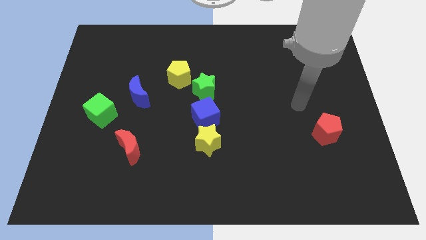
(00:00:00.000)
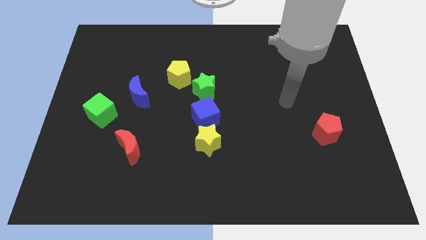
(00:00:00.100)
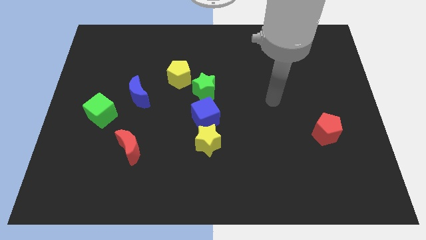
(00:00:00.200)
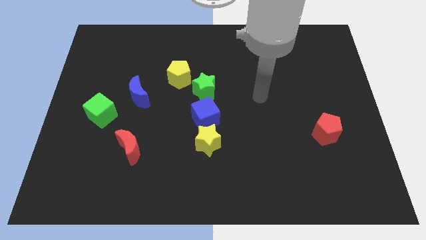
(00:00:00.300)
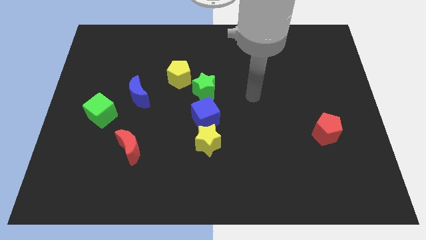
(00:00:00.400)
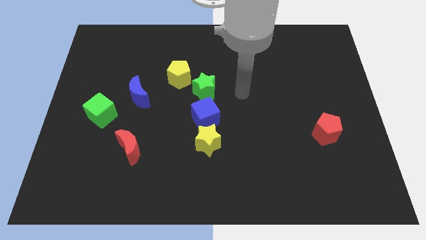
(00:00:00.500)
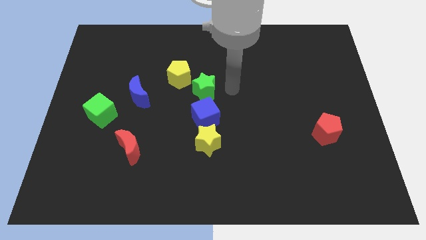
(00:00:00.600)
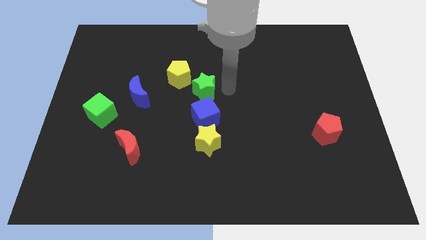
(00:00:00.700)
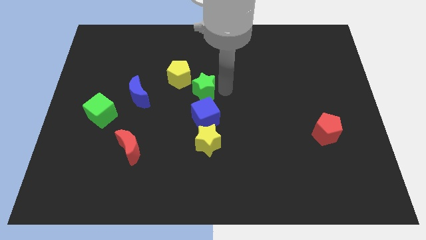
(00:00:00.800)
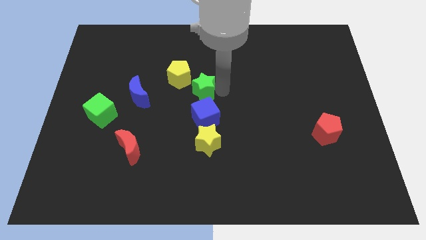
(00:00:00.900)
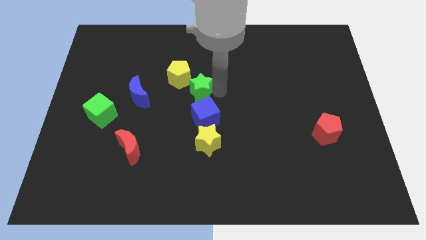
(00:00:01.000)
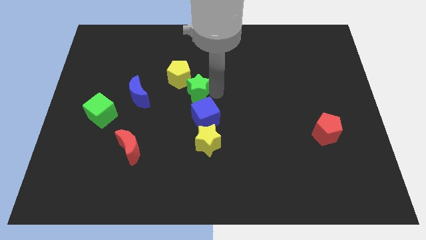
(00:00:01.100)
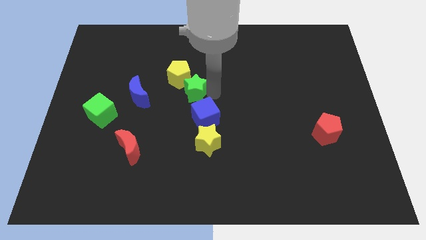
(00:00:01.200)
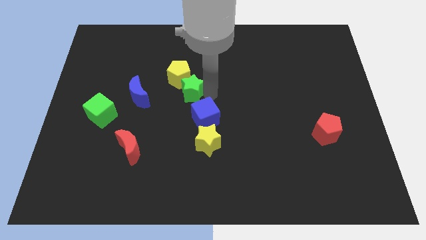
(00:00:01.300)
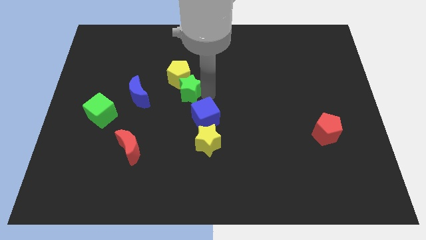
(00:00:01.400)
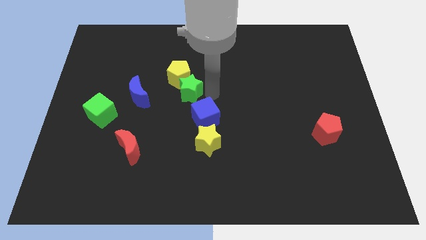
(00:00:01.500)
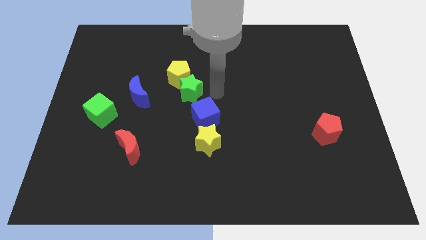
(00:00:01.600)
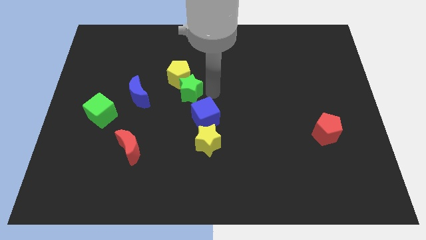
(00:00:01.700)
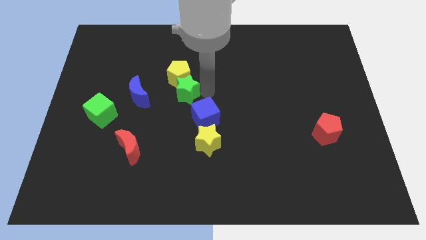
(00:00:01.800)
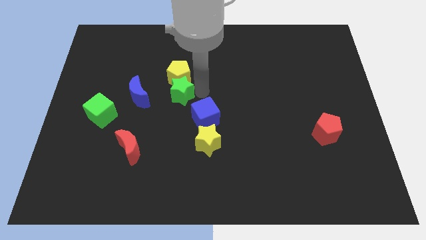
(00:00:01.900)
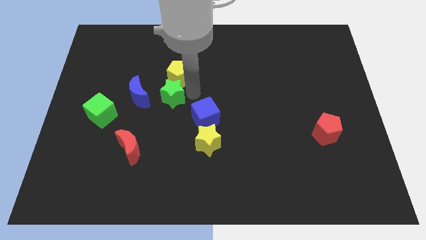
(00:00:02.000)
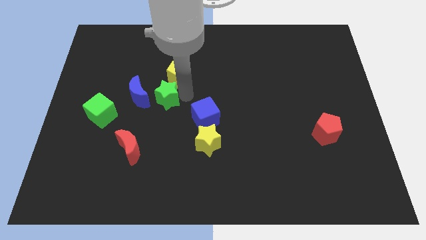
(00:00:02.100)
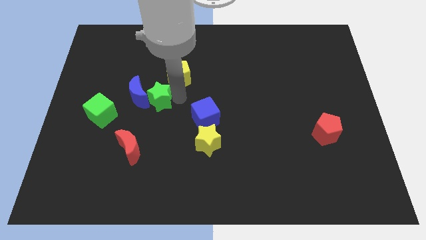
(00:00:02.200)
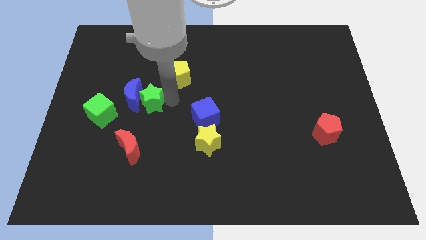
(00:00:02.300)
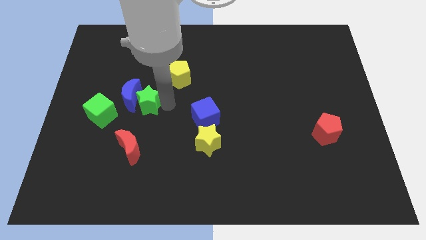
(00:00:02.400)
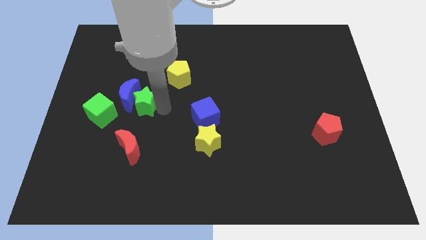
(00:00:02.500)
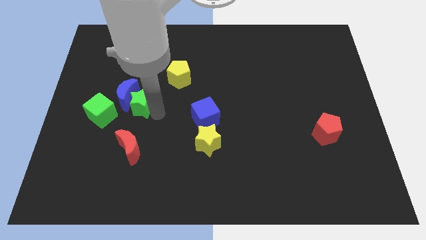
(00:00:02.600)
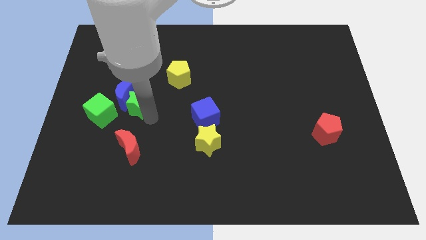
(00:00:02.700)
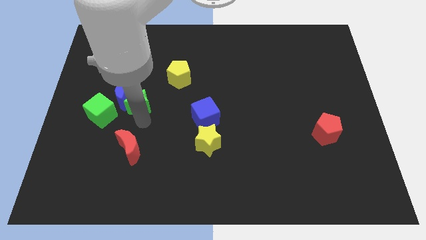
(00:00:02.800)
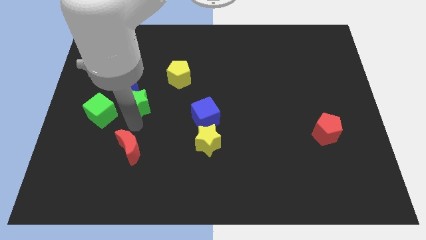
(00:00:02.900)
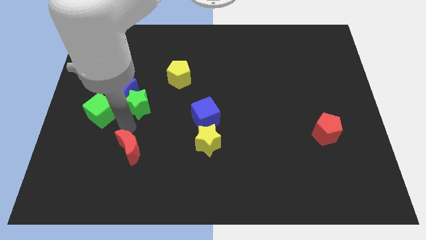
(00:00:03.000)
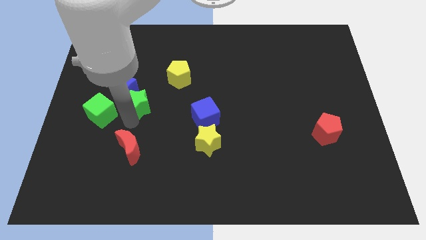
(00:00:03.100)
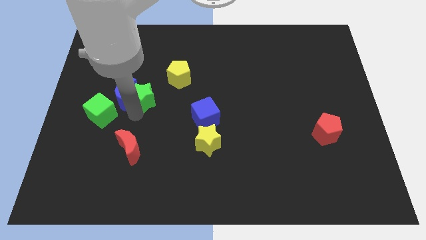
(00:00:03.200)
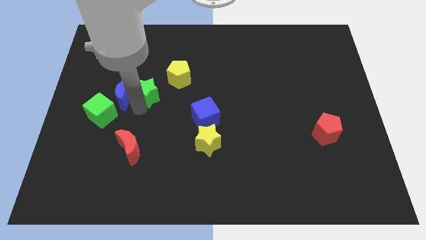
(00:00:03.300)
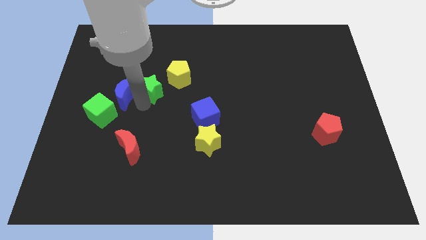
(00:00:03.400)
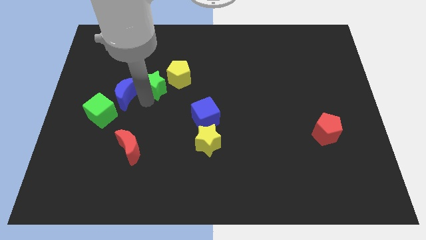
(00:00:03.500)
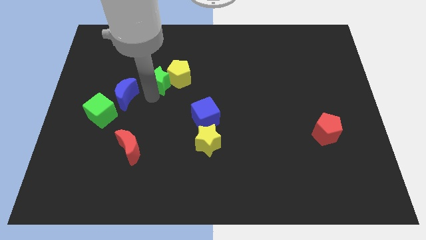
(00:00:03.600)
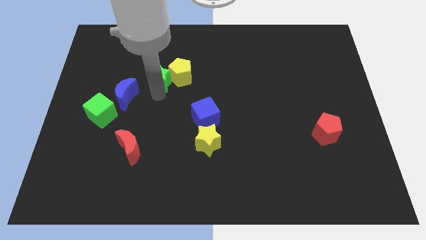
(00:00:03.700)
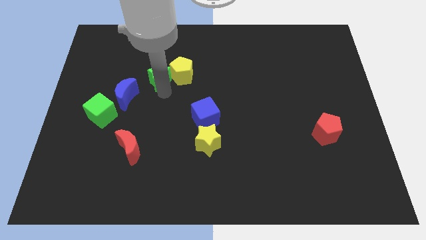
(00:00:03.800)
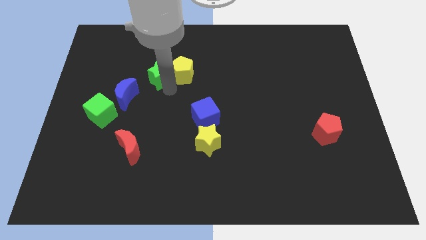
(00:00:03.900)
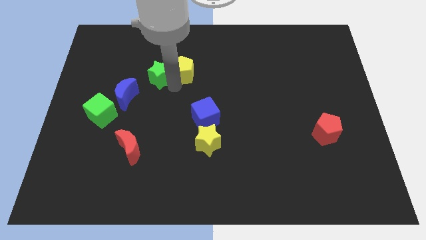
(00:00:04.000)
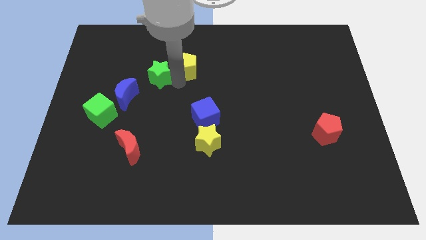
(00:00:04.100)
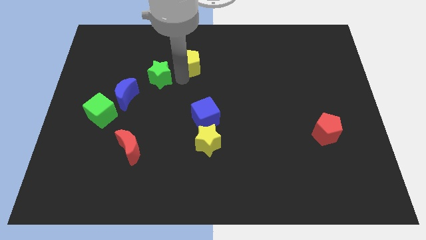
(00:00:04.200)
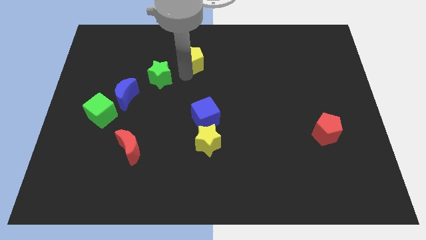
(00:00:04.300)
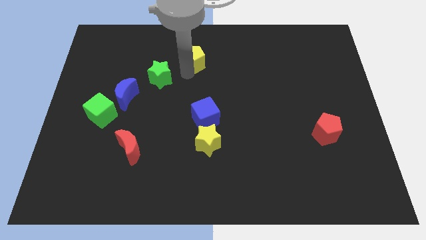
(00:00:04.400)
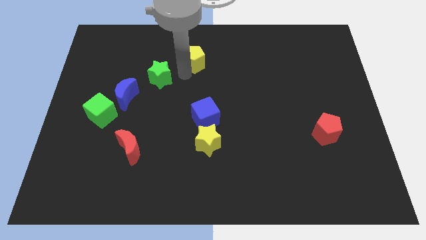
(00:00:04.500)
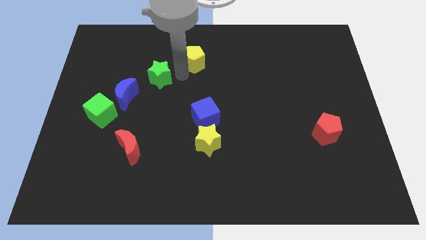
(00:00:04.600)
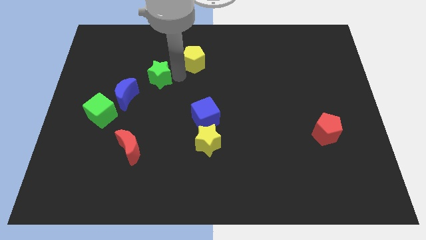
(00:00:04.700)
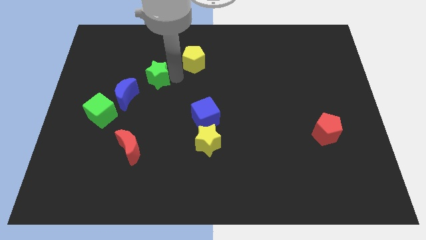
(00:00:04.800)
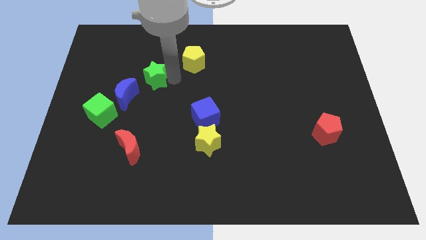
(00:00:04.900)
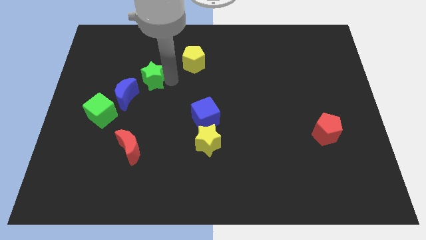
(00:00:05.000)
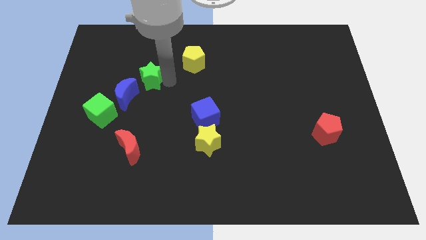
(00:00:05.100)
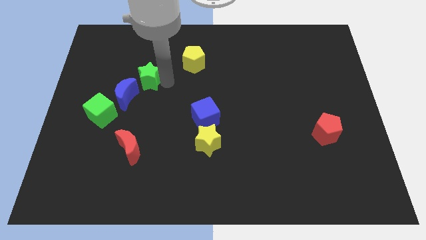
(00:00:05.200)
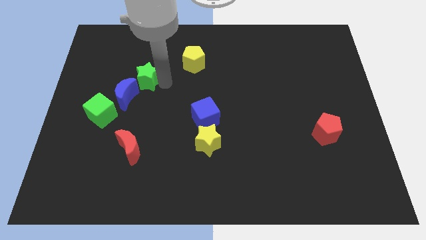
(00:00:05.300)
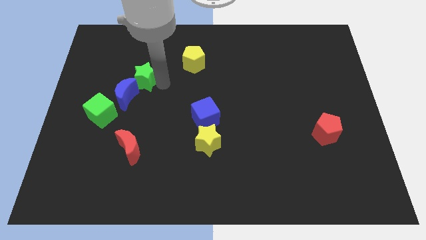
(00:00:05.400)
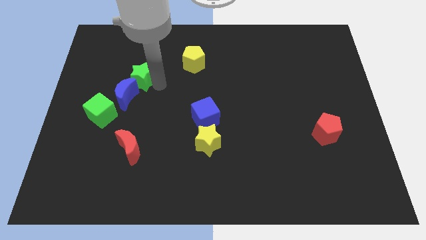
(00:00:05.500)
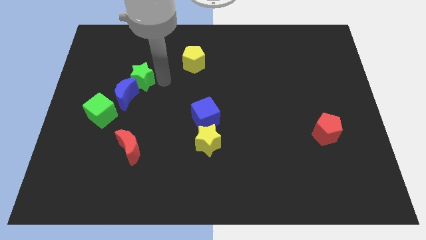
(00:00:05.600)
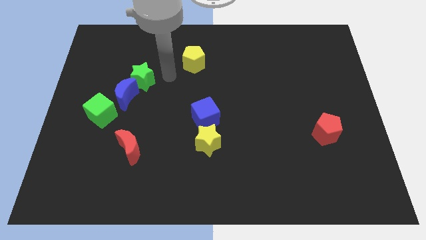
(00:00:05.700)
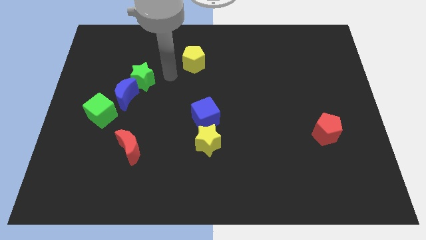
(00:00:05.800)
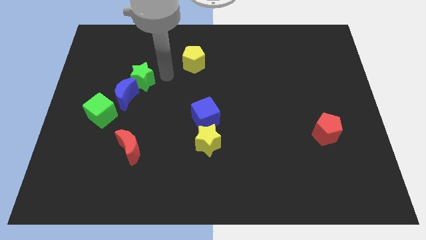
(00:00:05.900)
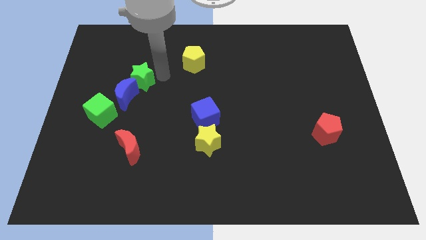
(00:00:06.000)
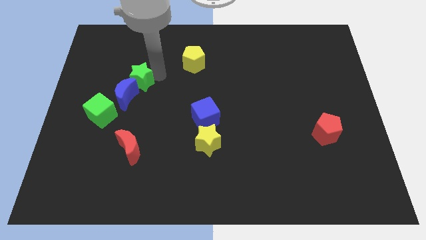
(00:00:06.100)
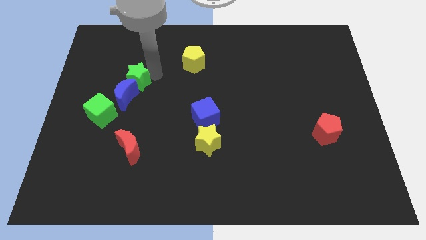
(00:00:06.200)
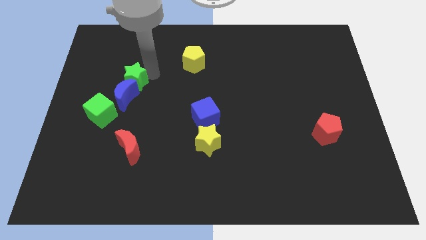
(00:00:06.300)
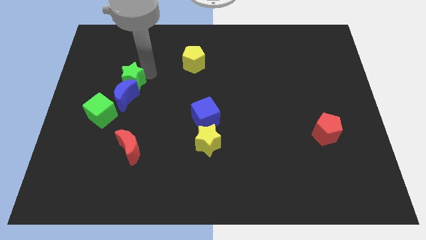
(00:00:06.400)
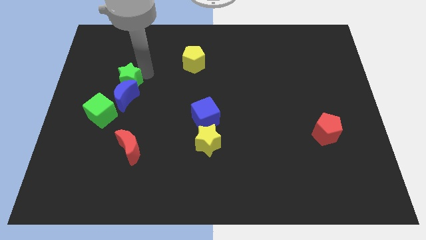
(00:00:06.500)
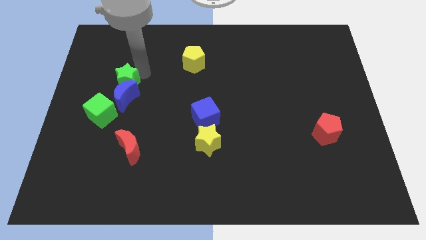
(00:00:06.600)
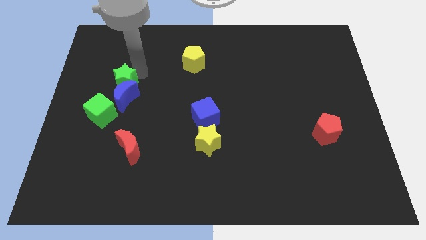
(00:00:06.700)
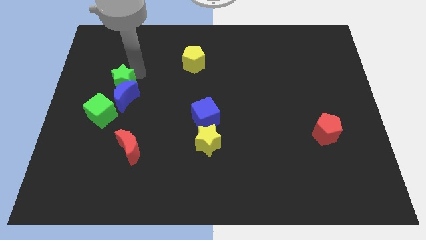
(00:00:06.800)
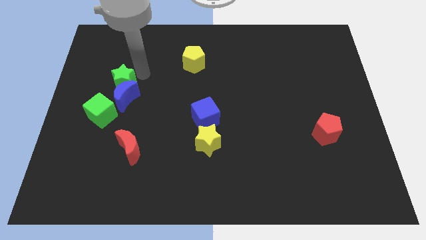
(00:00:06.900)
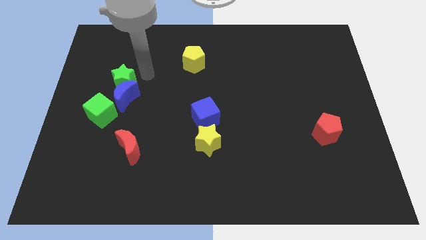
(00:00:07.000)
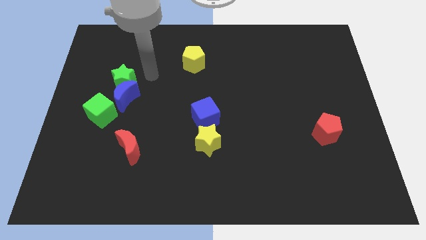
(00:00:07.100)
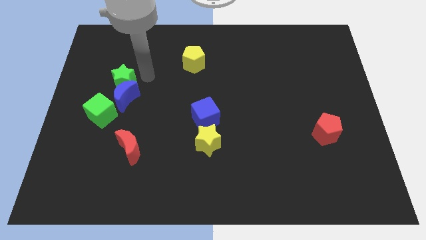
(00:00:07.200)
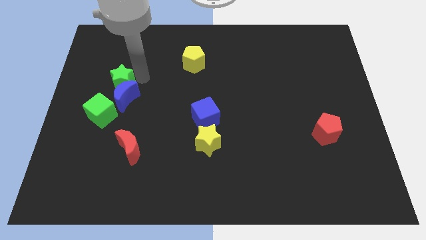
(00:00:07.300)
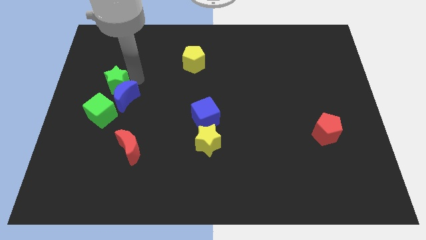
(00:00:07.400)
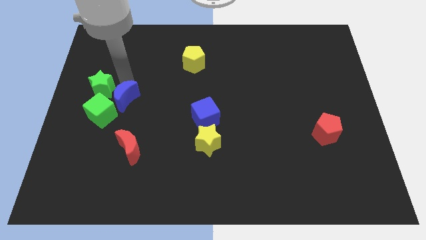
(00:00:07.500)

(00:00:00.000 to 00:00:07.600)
put the green star to the left side

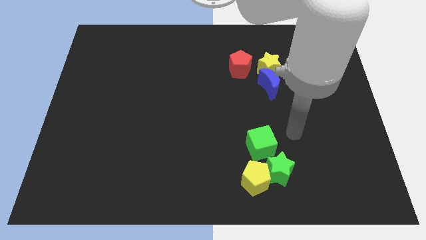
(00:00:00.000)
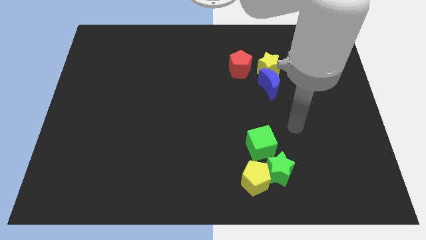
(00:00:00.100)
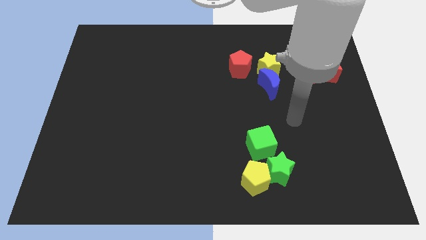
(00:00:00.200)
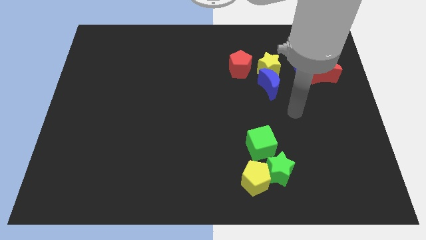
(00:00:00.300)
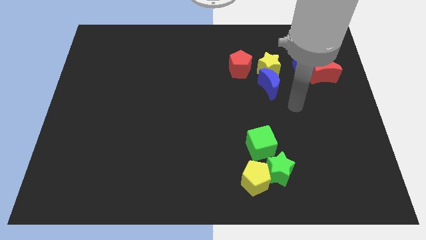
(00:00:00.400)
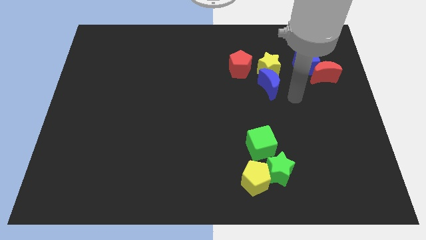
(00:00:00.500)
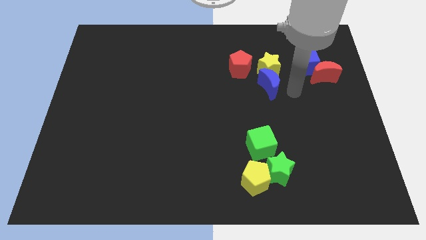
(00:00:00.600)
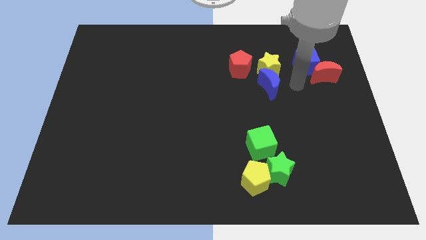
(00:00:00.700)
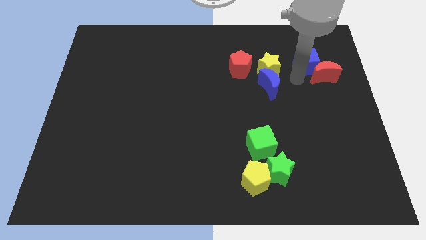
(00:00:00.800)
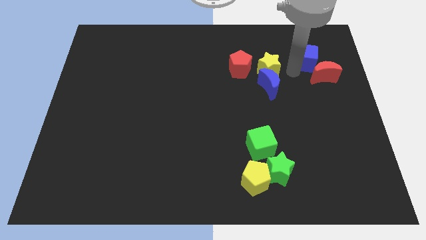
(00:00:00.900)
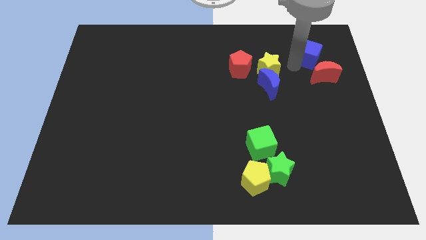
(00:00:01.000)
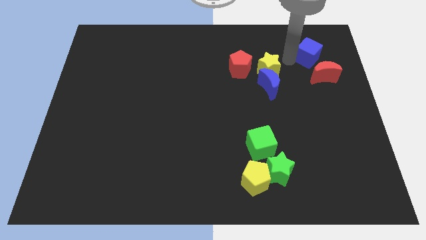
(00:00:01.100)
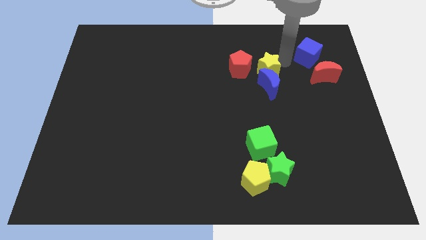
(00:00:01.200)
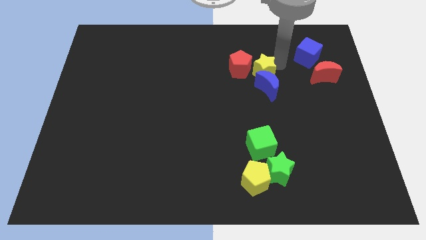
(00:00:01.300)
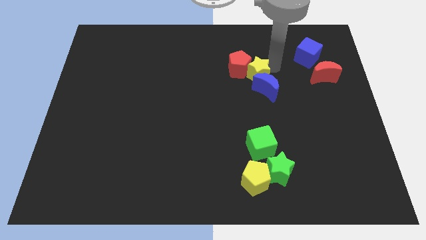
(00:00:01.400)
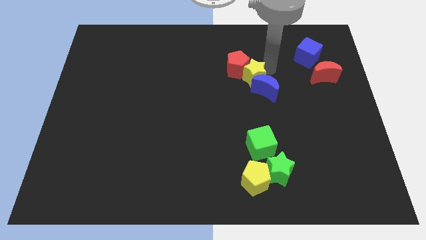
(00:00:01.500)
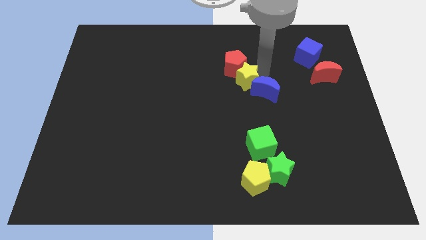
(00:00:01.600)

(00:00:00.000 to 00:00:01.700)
put the yellow star to the middle
